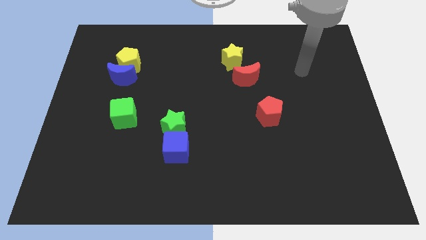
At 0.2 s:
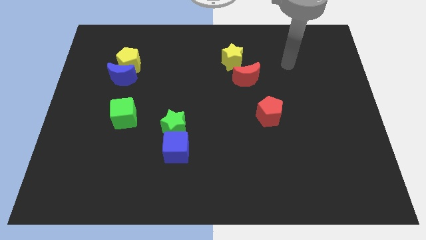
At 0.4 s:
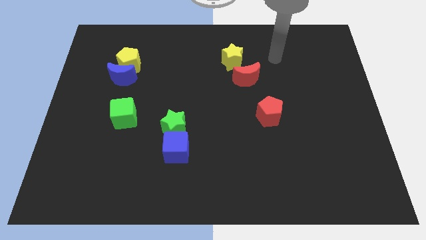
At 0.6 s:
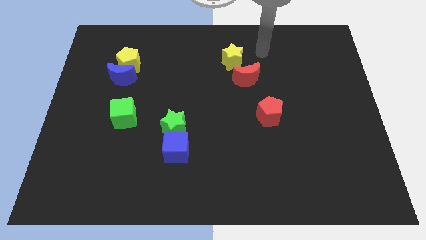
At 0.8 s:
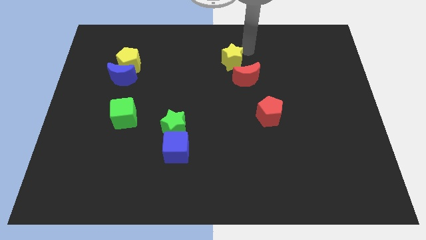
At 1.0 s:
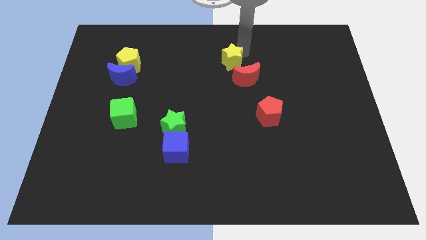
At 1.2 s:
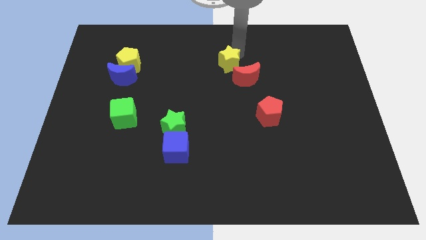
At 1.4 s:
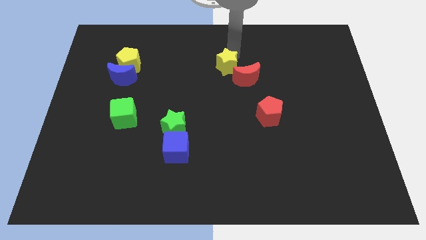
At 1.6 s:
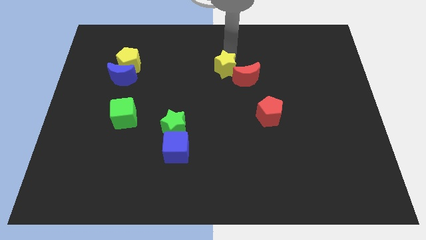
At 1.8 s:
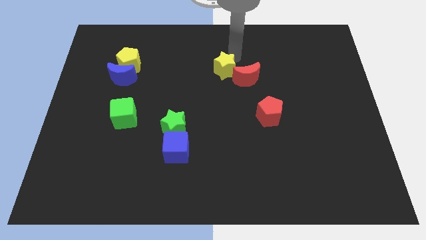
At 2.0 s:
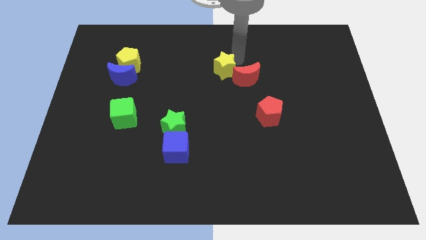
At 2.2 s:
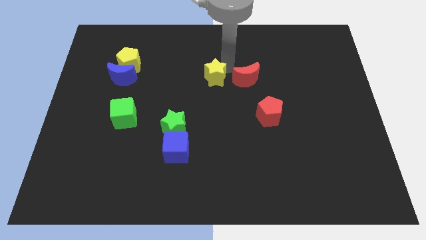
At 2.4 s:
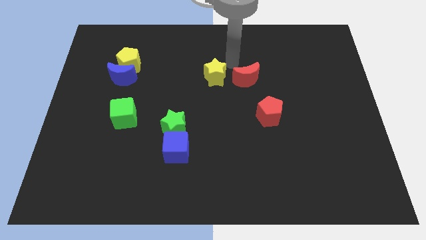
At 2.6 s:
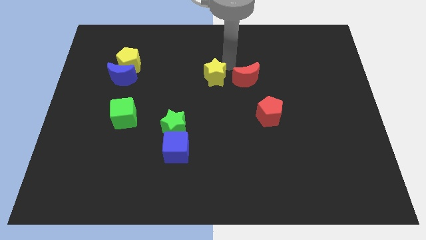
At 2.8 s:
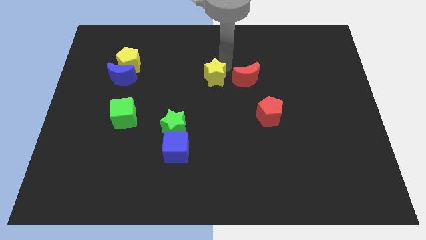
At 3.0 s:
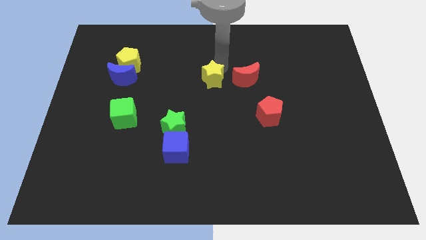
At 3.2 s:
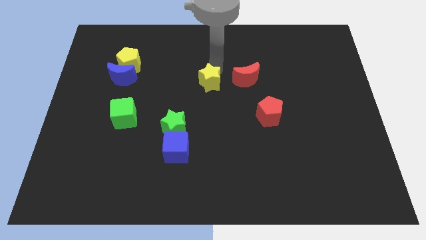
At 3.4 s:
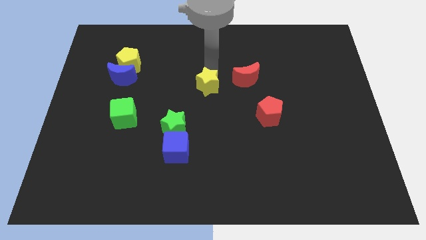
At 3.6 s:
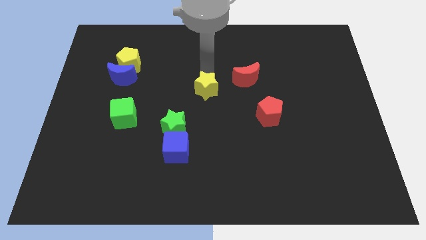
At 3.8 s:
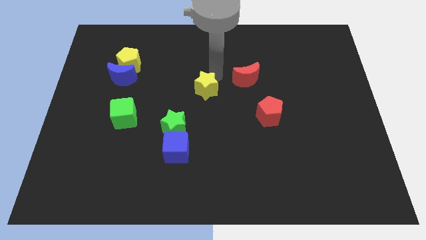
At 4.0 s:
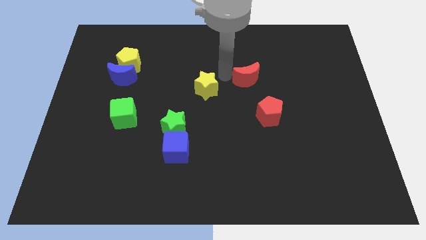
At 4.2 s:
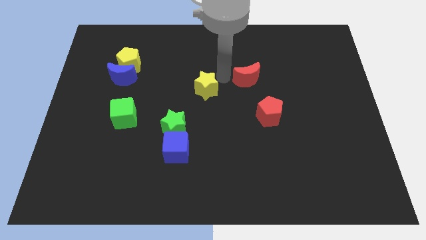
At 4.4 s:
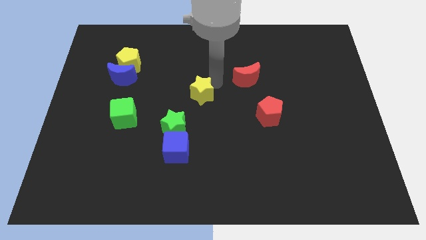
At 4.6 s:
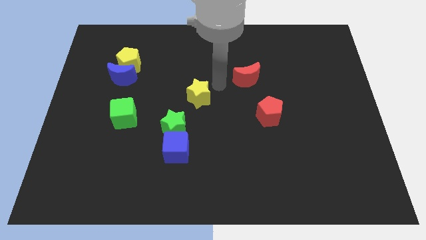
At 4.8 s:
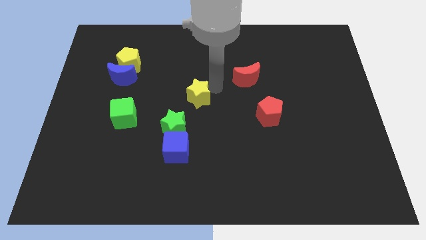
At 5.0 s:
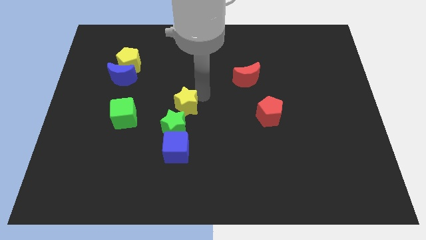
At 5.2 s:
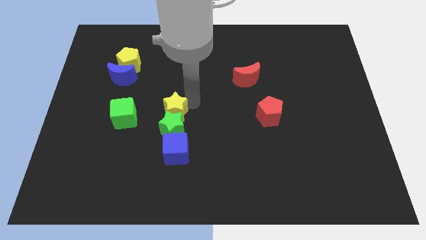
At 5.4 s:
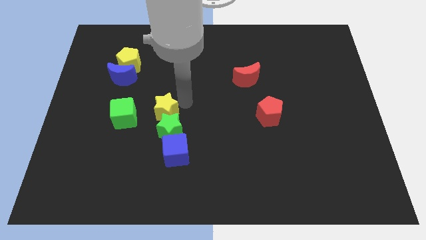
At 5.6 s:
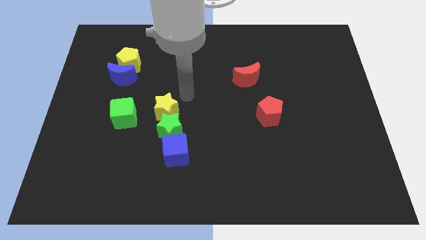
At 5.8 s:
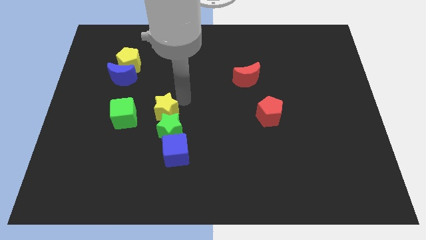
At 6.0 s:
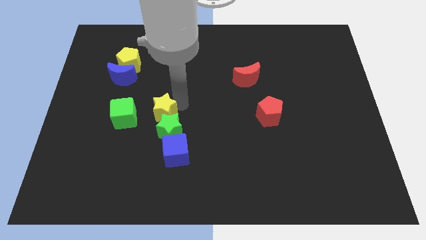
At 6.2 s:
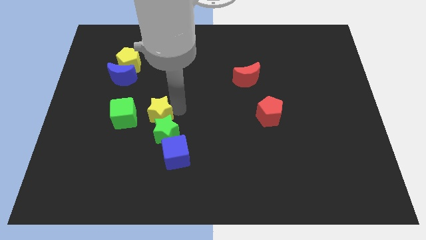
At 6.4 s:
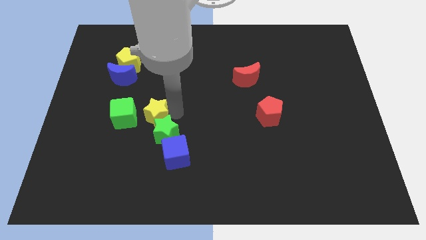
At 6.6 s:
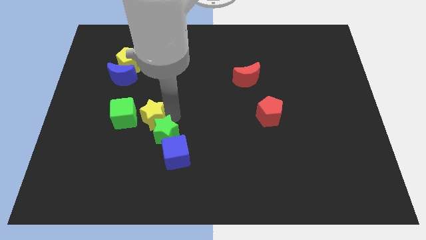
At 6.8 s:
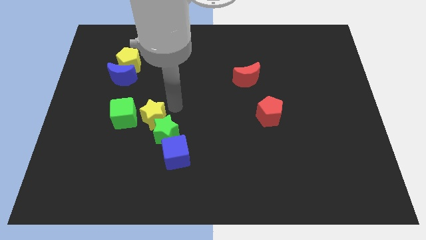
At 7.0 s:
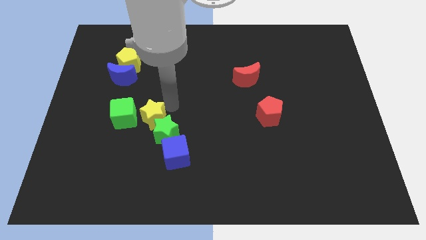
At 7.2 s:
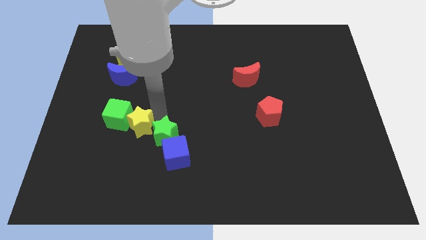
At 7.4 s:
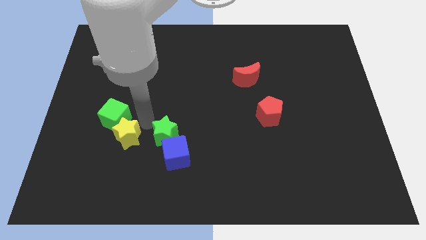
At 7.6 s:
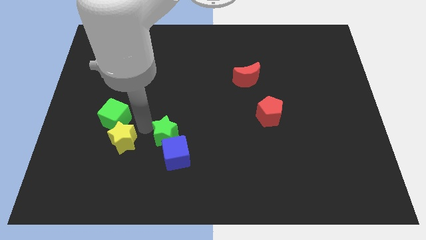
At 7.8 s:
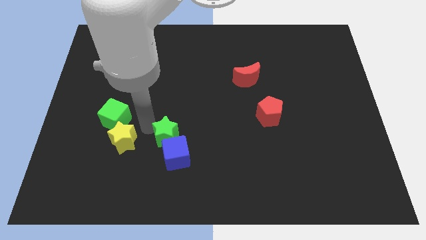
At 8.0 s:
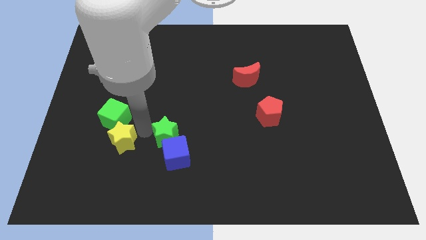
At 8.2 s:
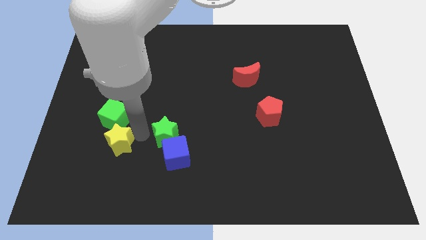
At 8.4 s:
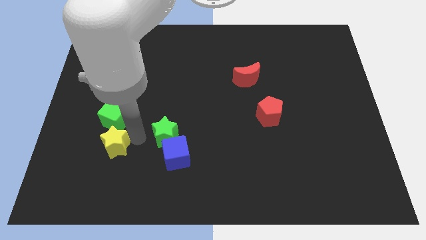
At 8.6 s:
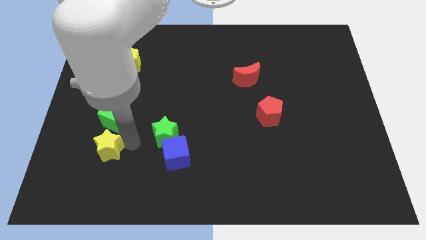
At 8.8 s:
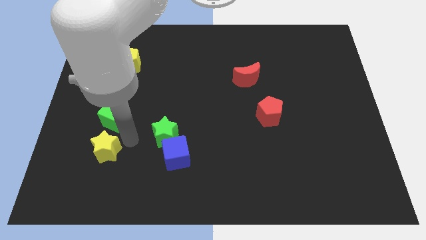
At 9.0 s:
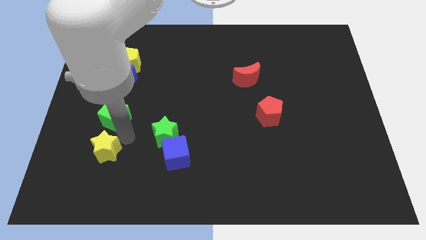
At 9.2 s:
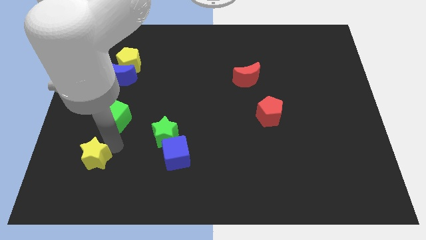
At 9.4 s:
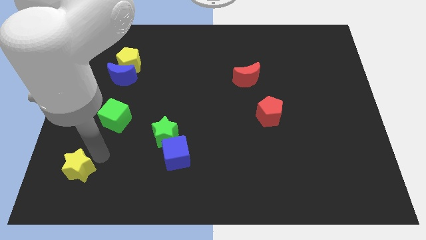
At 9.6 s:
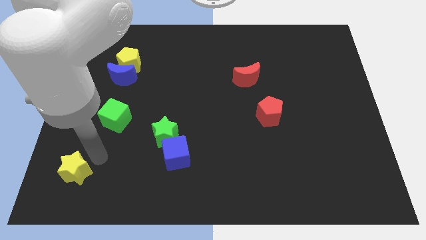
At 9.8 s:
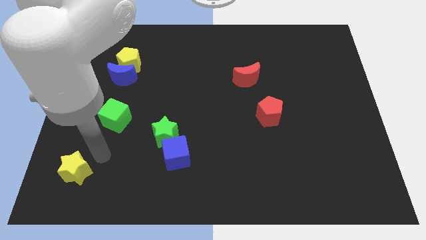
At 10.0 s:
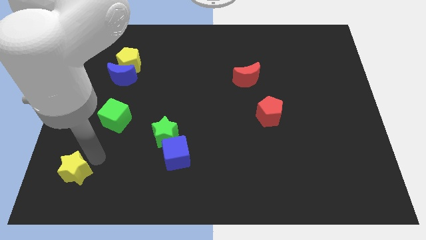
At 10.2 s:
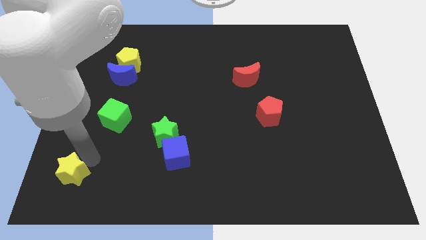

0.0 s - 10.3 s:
push the yellow star to the bottom left corner
